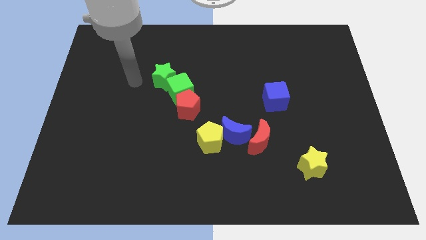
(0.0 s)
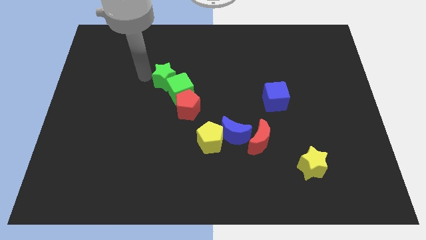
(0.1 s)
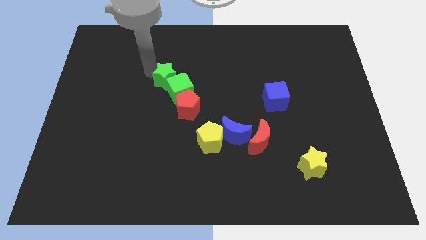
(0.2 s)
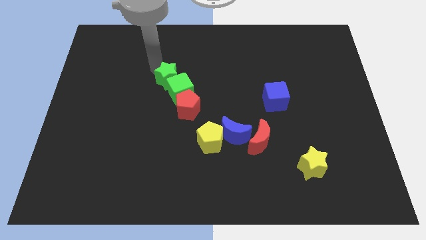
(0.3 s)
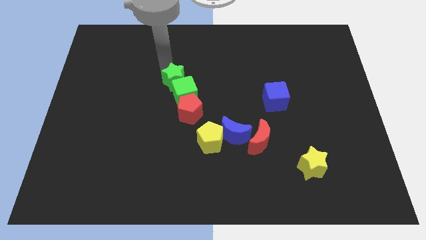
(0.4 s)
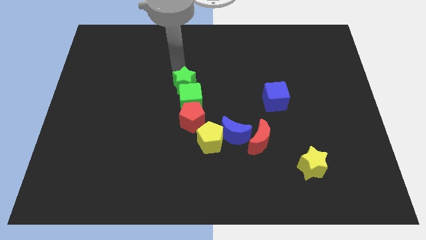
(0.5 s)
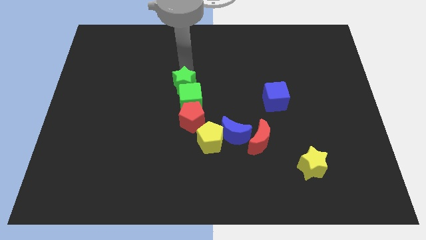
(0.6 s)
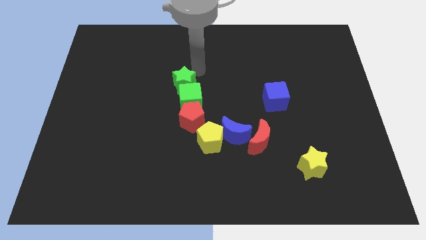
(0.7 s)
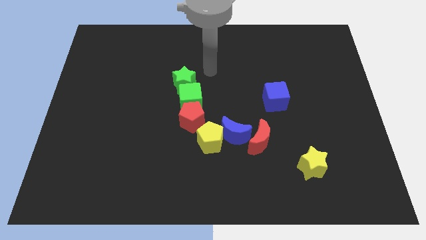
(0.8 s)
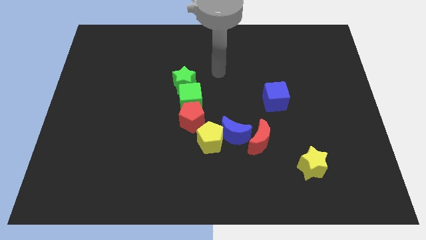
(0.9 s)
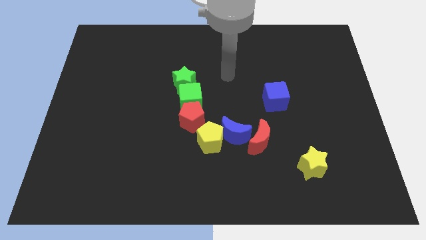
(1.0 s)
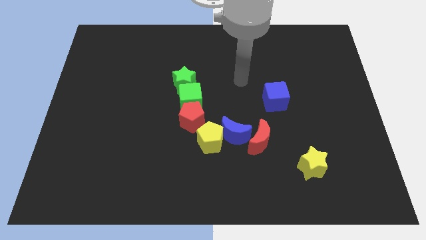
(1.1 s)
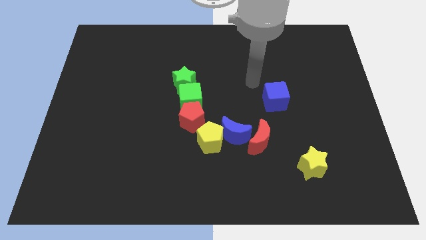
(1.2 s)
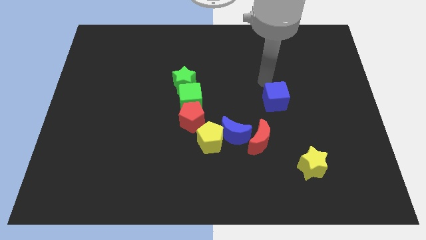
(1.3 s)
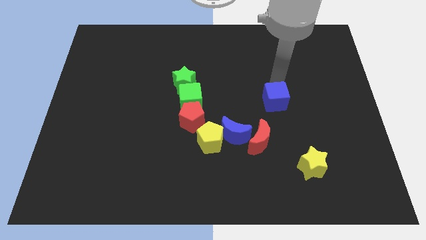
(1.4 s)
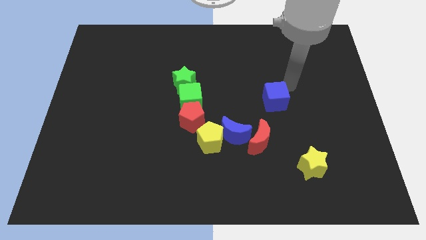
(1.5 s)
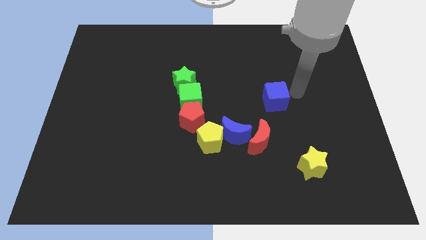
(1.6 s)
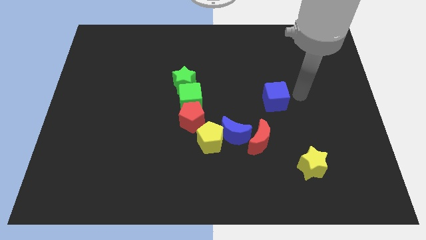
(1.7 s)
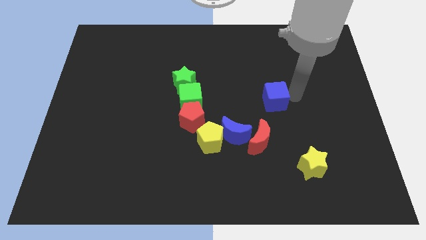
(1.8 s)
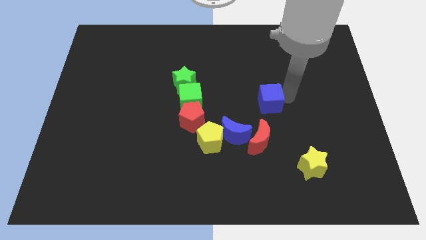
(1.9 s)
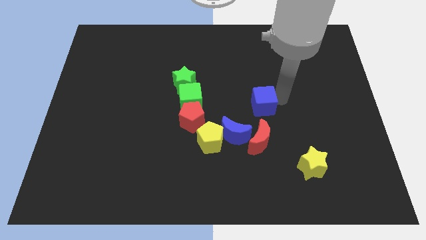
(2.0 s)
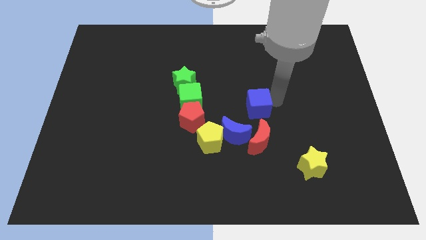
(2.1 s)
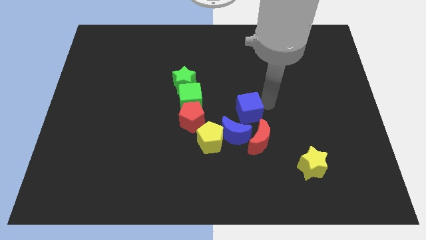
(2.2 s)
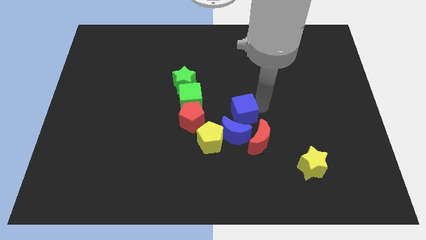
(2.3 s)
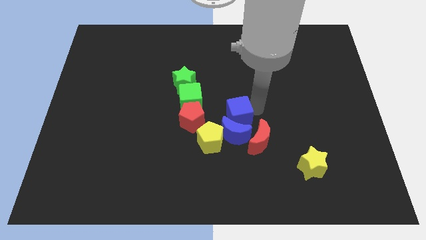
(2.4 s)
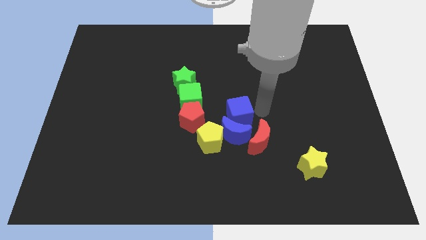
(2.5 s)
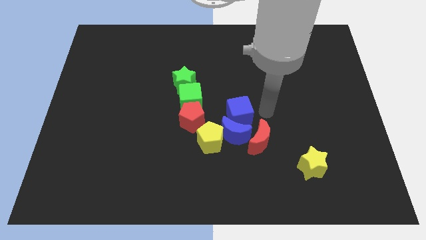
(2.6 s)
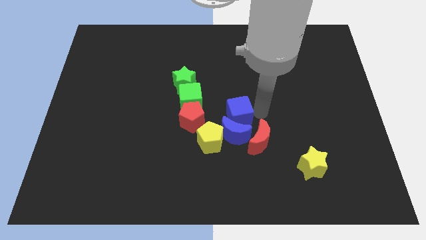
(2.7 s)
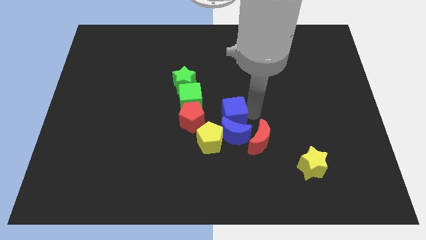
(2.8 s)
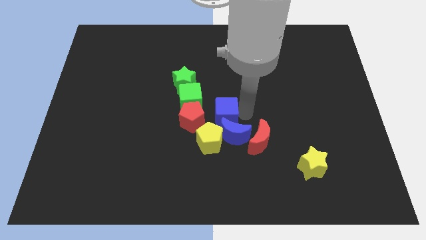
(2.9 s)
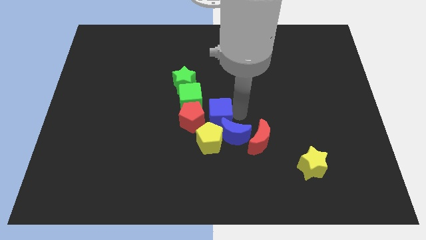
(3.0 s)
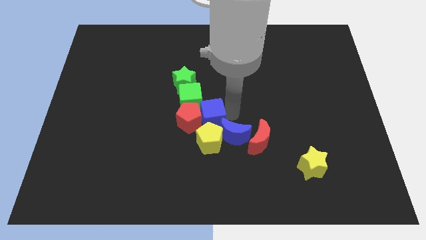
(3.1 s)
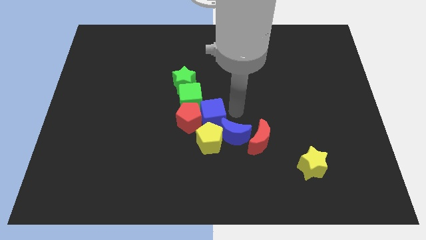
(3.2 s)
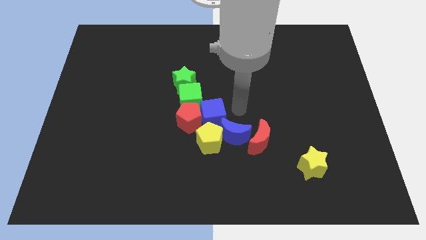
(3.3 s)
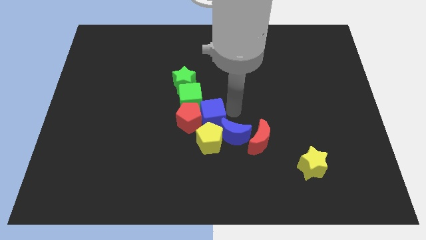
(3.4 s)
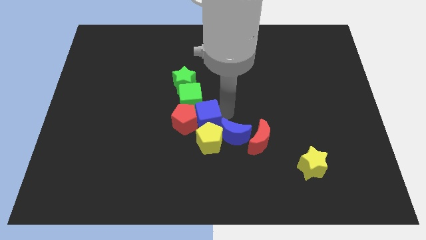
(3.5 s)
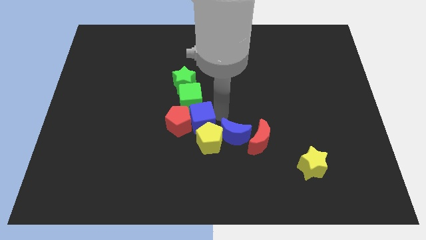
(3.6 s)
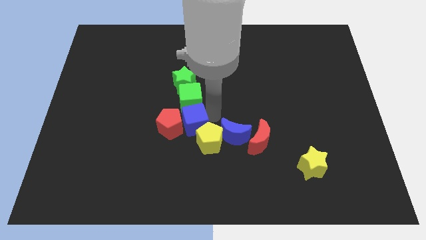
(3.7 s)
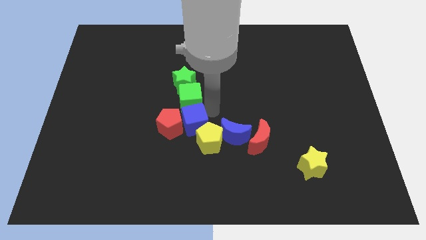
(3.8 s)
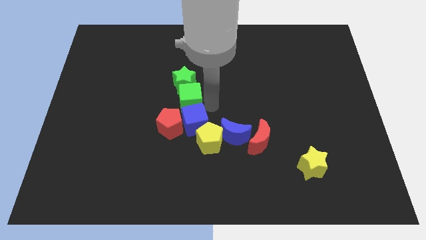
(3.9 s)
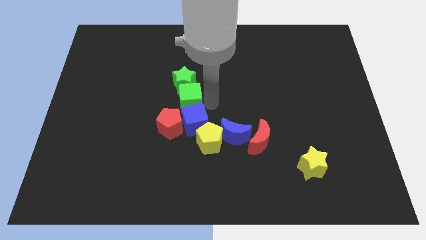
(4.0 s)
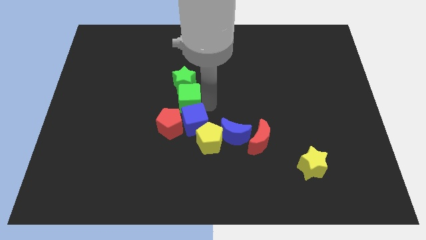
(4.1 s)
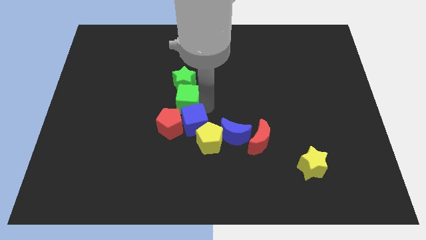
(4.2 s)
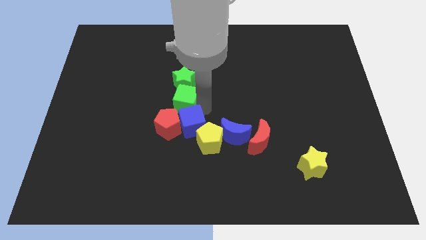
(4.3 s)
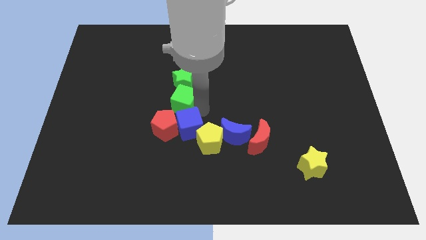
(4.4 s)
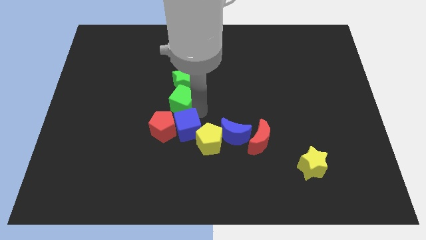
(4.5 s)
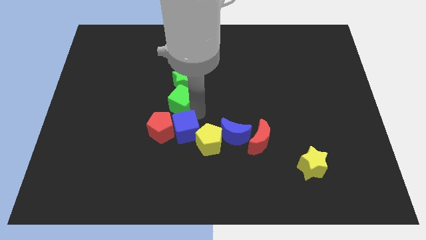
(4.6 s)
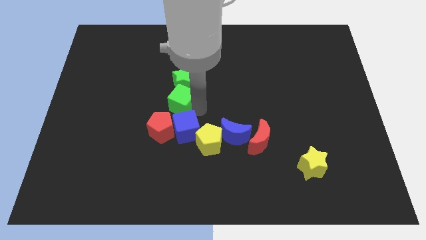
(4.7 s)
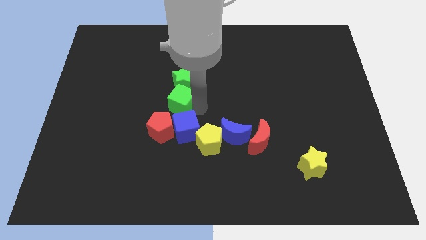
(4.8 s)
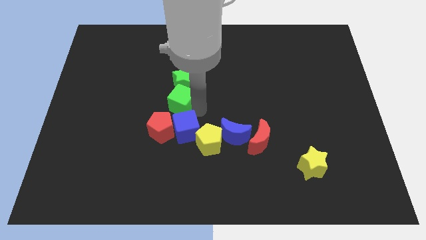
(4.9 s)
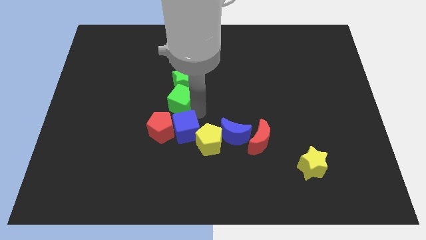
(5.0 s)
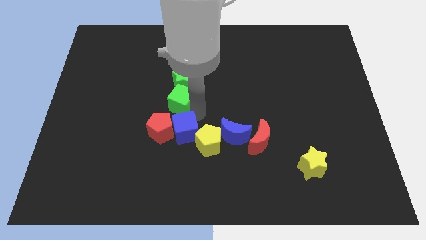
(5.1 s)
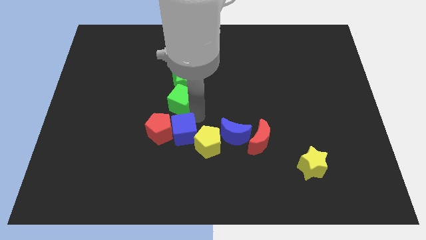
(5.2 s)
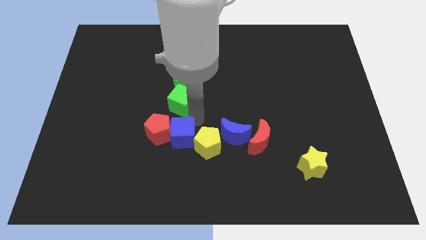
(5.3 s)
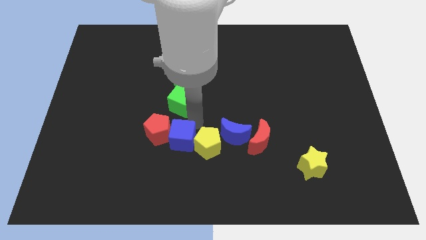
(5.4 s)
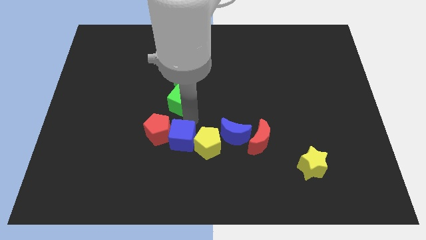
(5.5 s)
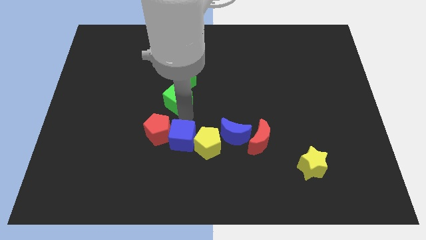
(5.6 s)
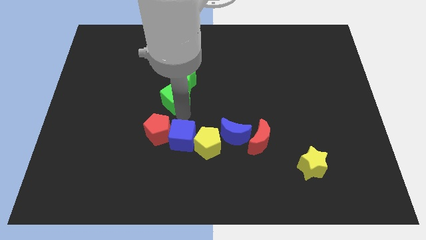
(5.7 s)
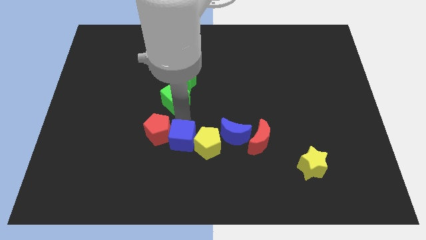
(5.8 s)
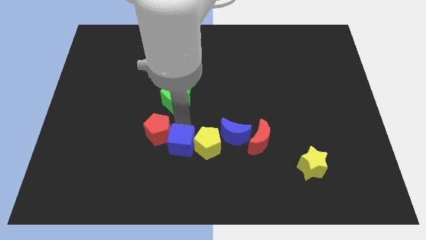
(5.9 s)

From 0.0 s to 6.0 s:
move the blue cube to the bottom left of the yellow pentagon

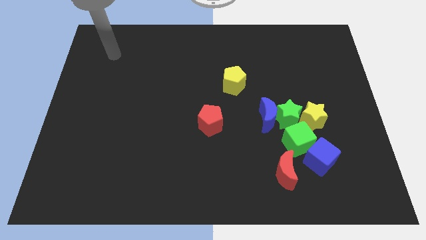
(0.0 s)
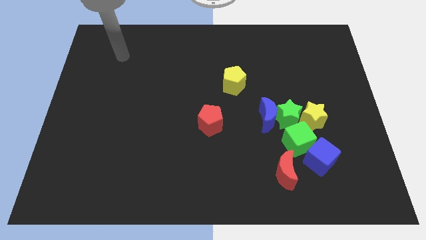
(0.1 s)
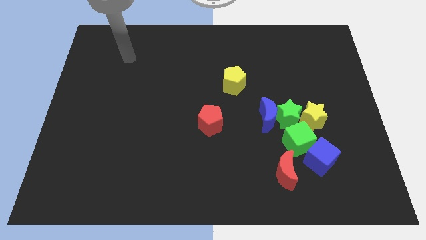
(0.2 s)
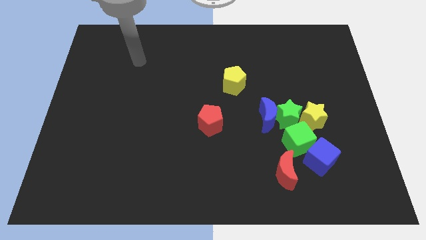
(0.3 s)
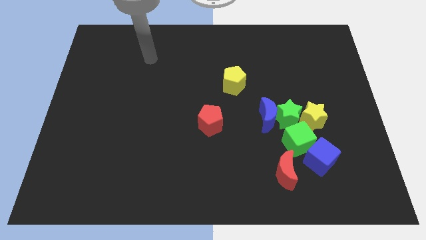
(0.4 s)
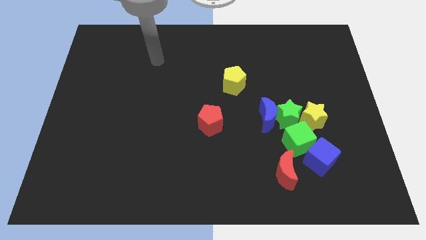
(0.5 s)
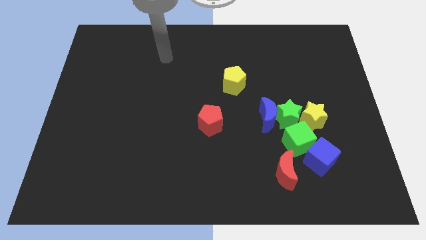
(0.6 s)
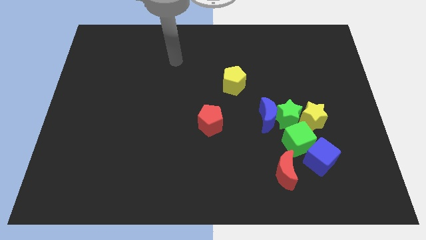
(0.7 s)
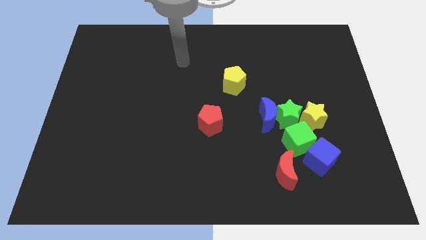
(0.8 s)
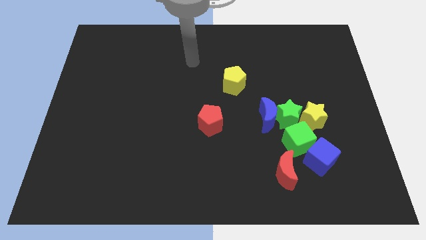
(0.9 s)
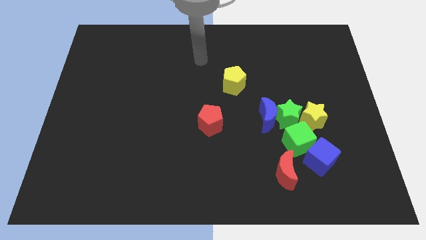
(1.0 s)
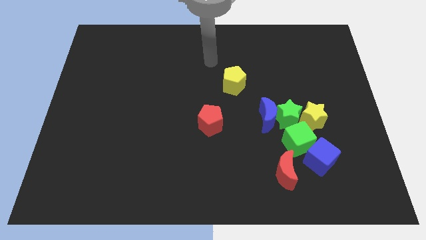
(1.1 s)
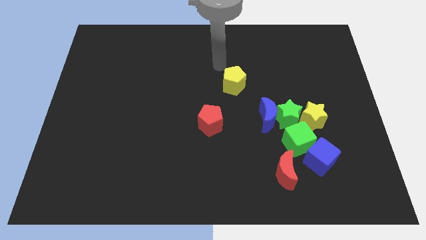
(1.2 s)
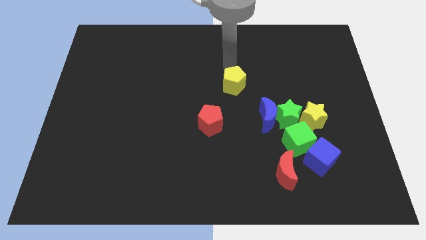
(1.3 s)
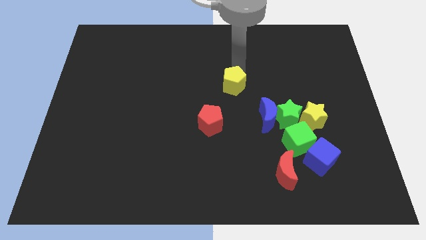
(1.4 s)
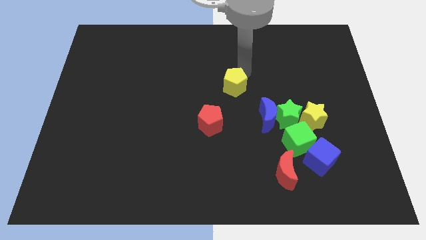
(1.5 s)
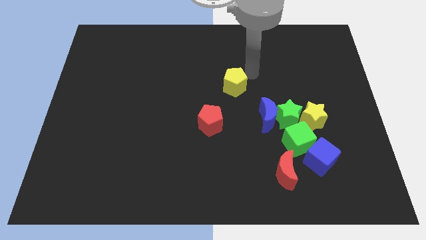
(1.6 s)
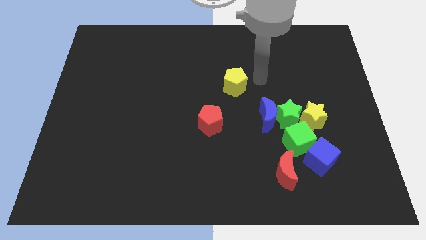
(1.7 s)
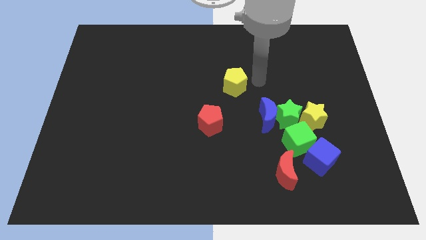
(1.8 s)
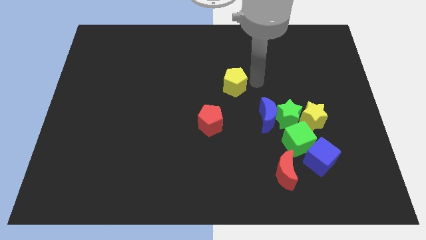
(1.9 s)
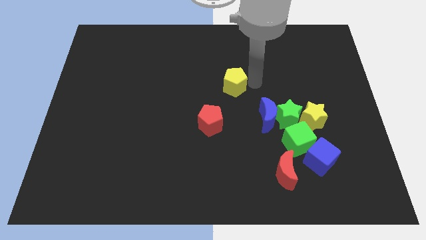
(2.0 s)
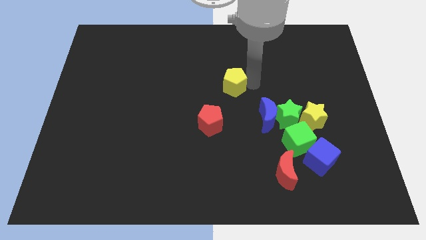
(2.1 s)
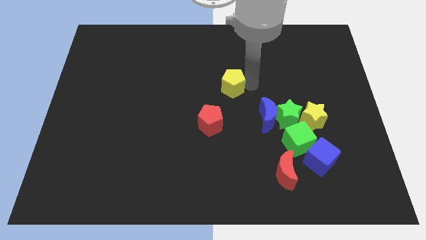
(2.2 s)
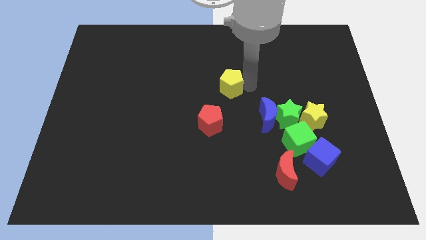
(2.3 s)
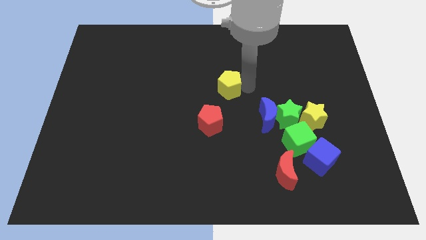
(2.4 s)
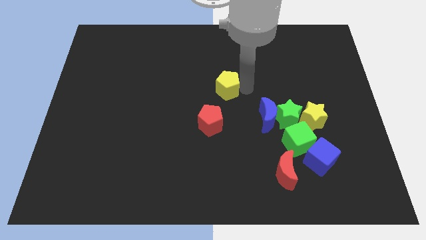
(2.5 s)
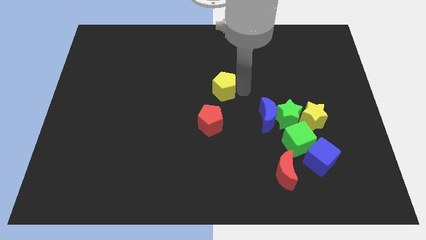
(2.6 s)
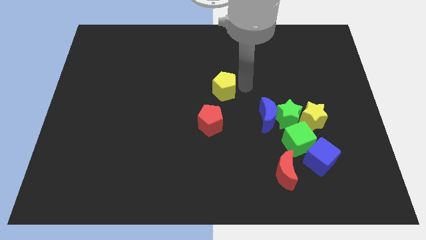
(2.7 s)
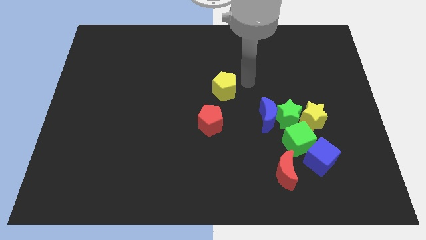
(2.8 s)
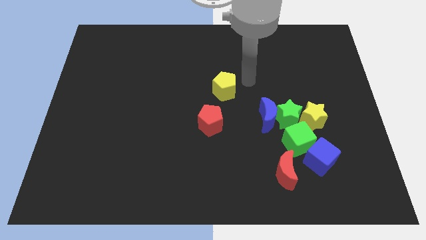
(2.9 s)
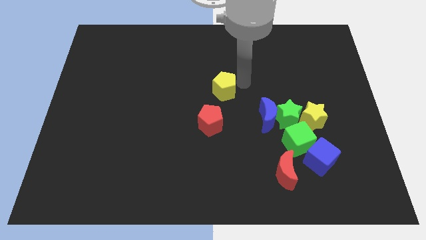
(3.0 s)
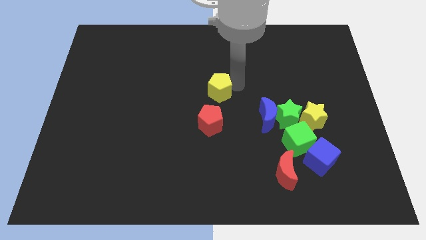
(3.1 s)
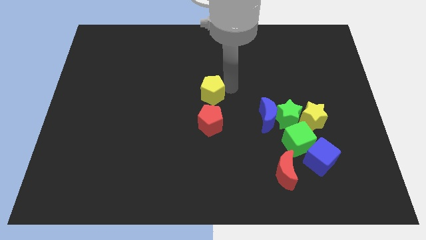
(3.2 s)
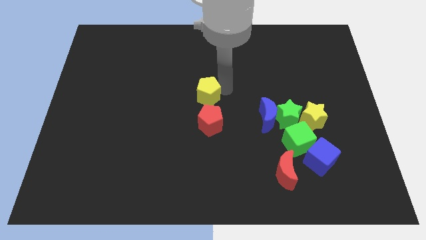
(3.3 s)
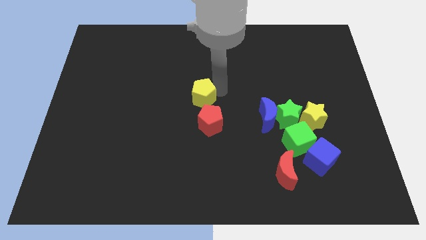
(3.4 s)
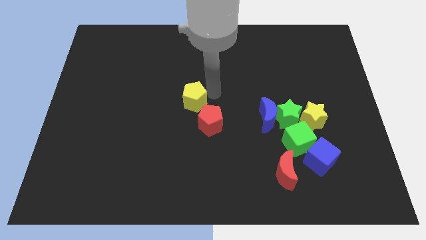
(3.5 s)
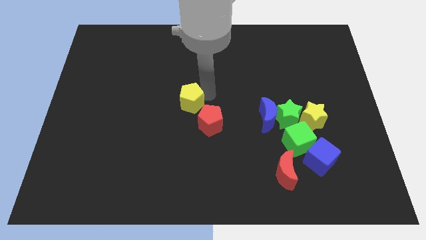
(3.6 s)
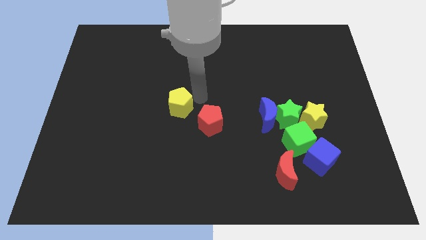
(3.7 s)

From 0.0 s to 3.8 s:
slide the yellow pentagon to the left side of the red pentagon
